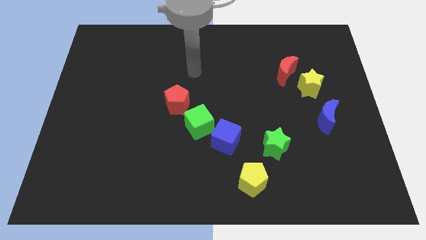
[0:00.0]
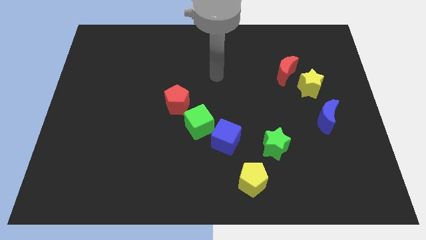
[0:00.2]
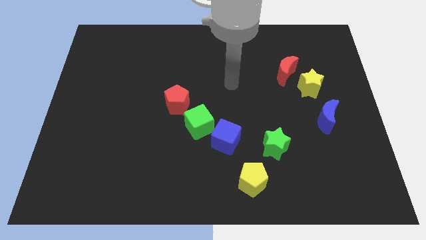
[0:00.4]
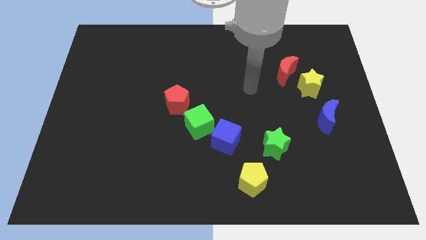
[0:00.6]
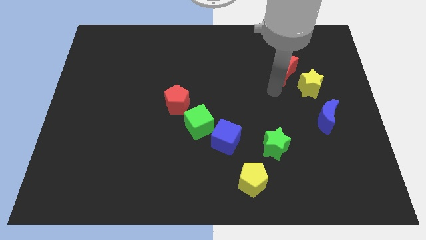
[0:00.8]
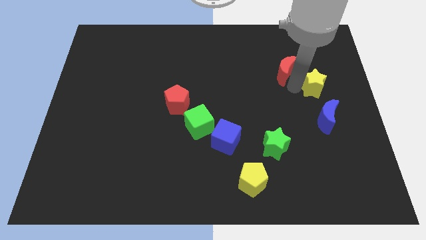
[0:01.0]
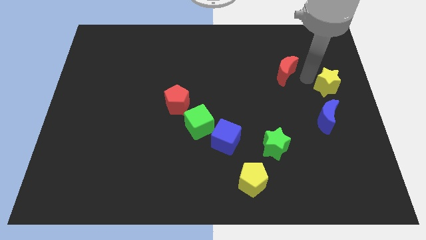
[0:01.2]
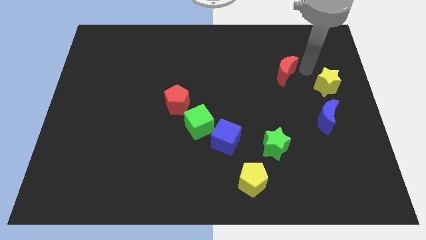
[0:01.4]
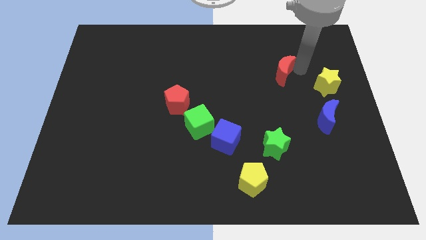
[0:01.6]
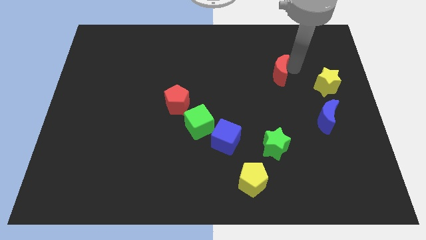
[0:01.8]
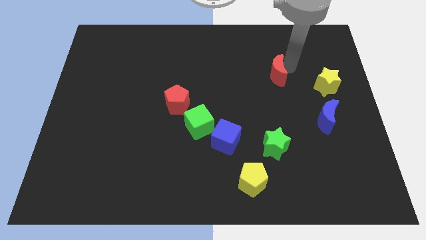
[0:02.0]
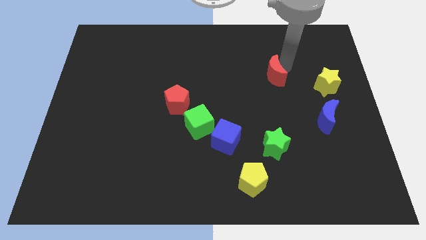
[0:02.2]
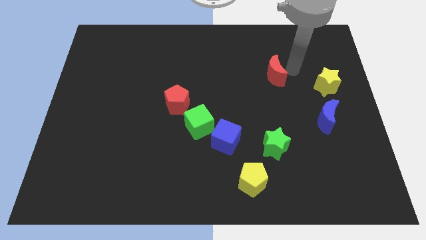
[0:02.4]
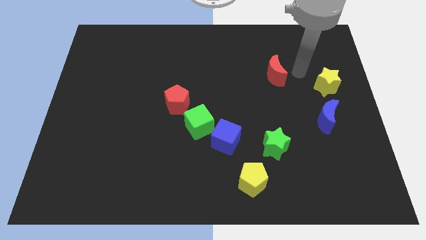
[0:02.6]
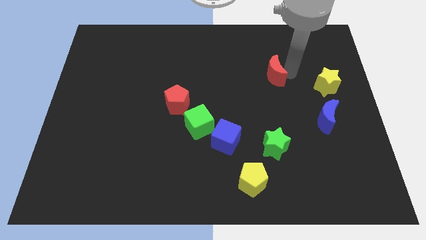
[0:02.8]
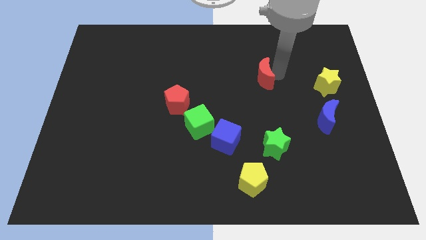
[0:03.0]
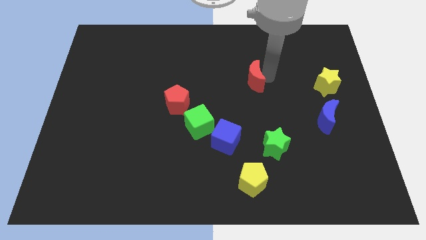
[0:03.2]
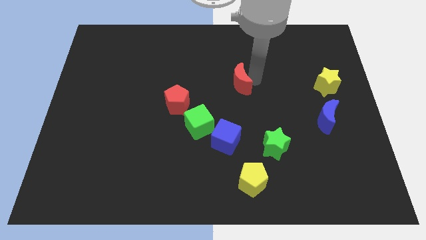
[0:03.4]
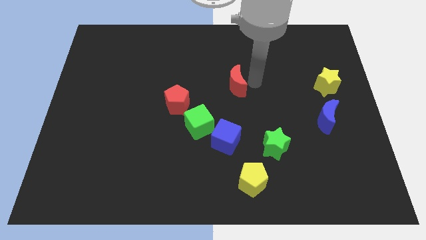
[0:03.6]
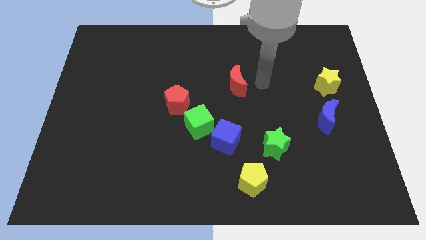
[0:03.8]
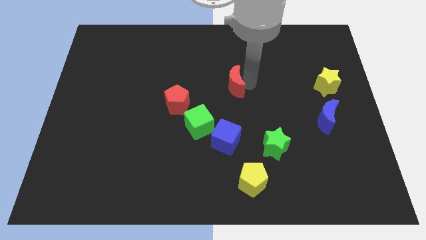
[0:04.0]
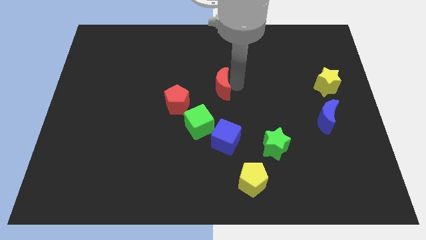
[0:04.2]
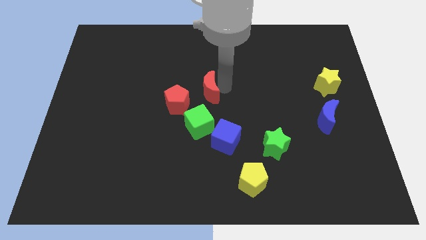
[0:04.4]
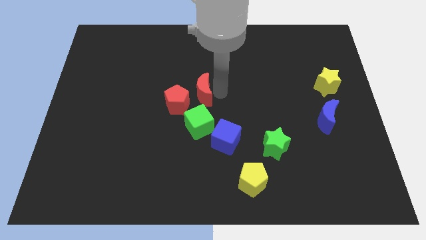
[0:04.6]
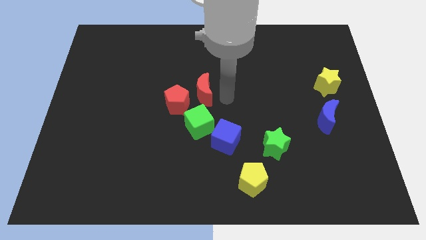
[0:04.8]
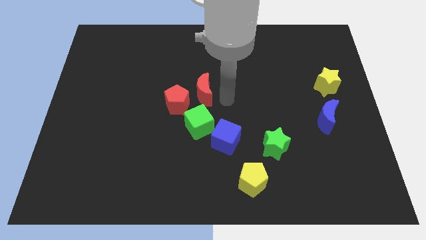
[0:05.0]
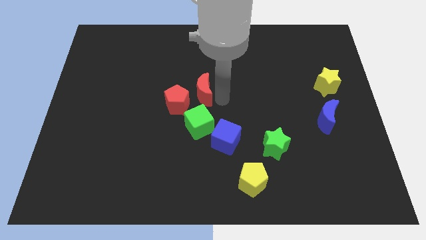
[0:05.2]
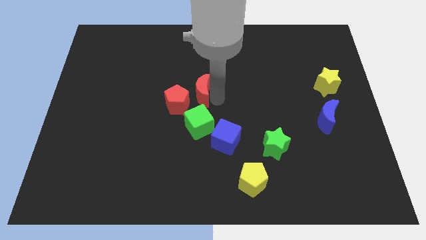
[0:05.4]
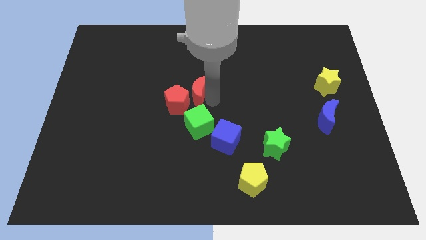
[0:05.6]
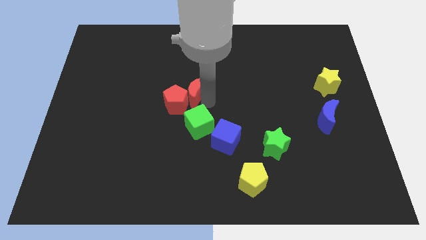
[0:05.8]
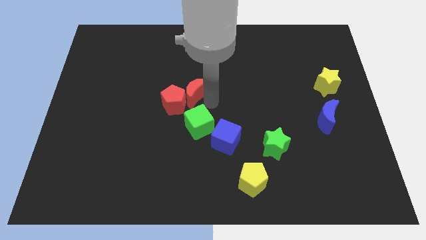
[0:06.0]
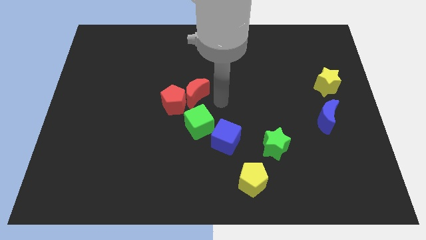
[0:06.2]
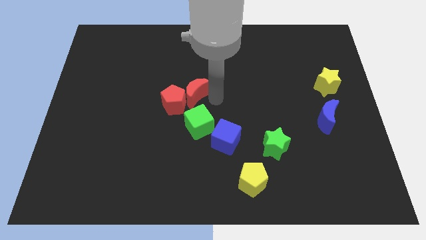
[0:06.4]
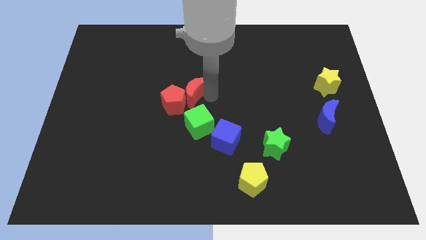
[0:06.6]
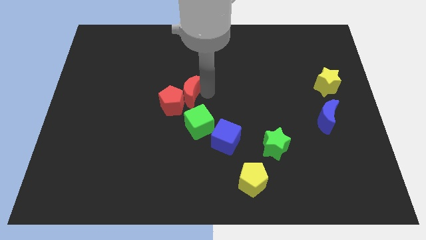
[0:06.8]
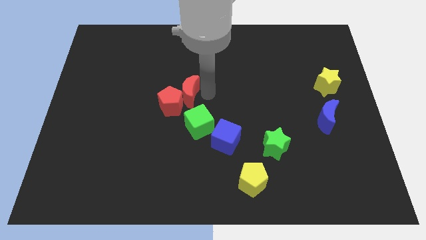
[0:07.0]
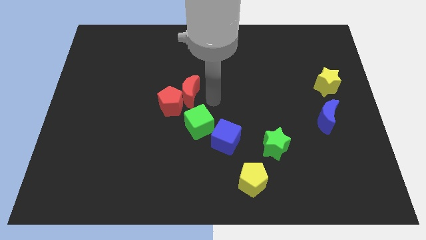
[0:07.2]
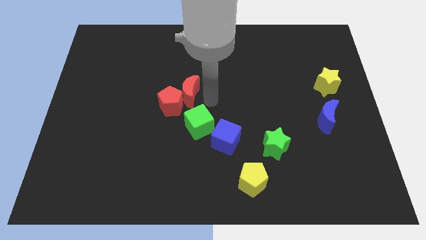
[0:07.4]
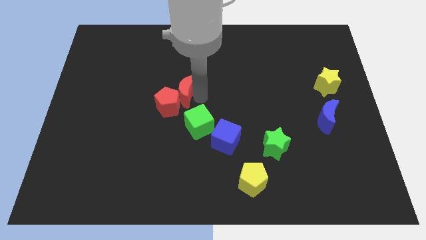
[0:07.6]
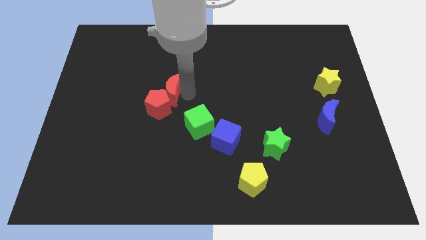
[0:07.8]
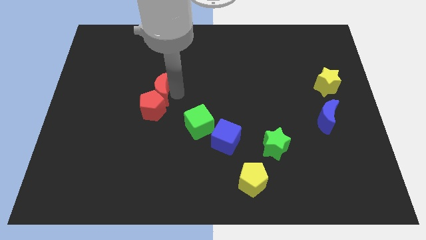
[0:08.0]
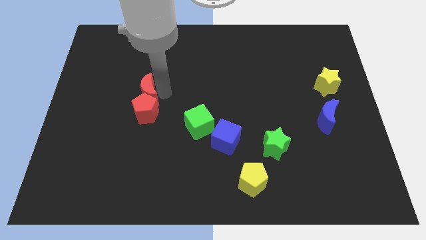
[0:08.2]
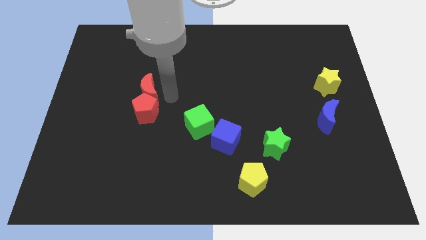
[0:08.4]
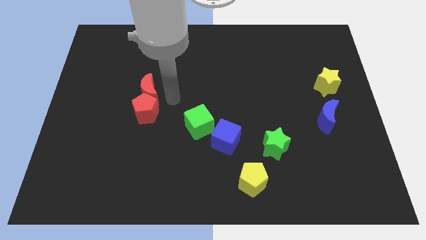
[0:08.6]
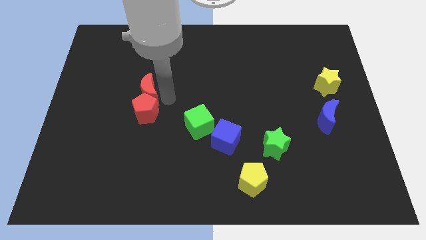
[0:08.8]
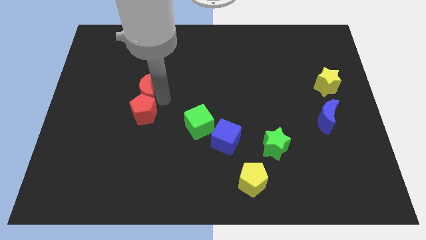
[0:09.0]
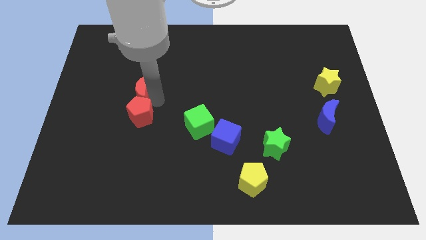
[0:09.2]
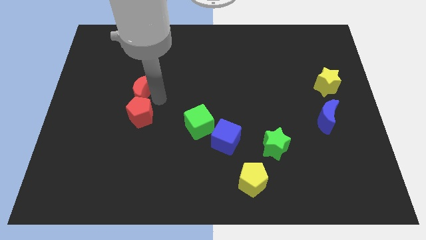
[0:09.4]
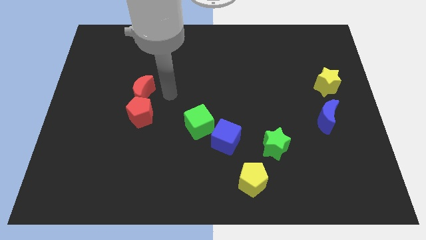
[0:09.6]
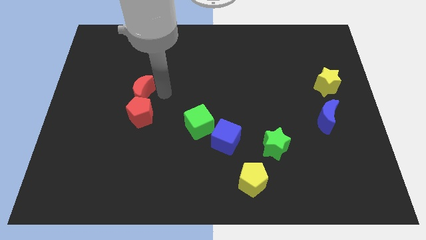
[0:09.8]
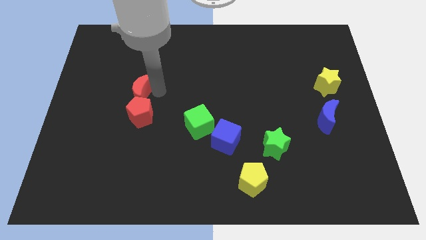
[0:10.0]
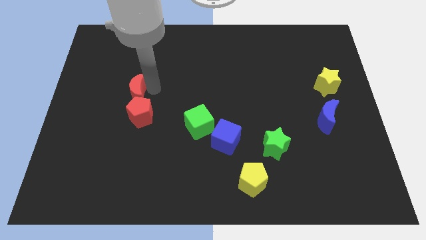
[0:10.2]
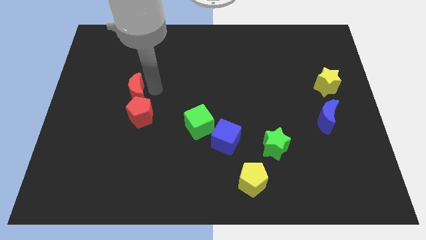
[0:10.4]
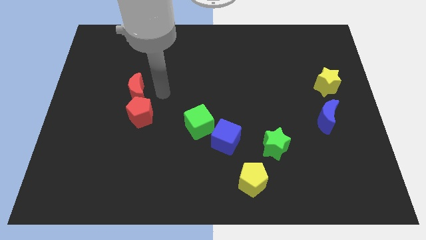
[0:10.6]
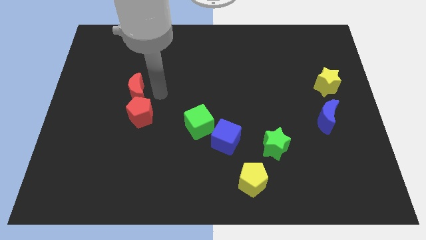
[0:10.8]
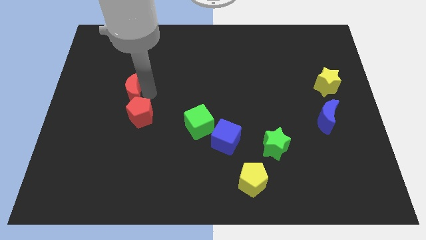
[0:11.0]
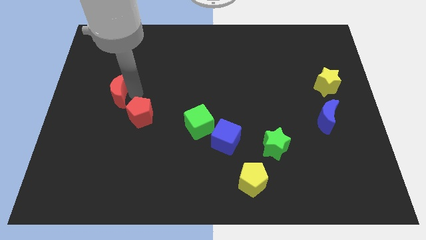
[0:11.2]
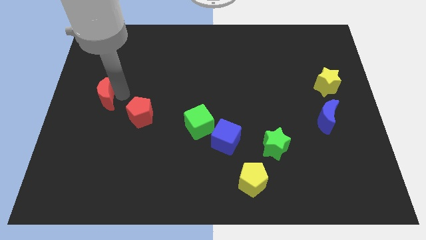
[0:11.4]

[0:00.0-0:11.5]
put the red moon to the center left
